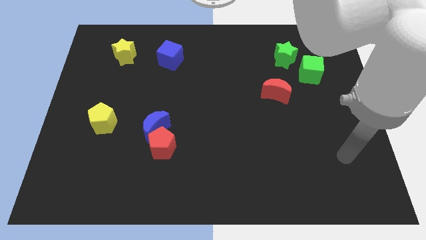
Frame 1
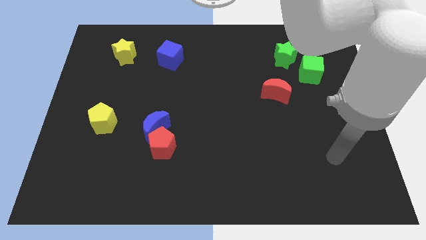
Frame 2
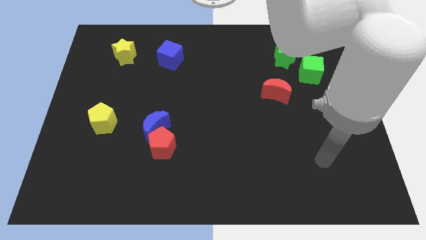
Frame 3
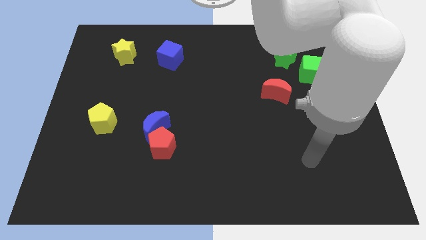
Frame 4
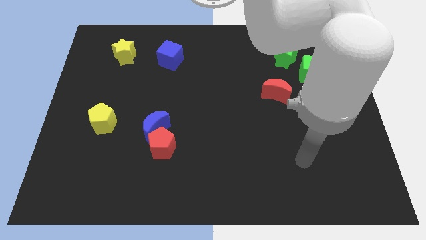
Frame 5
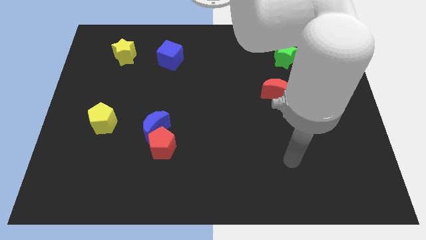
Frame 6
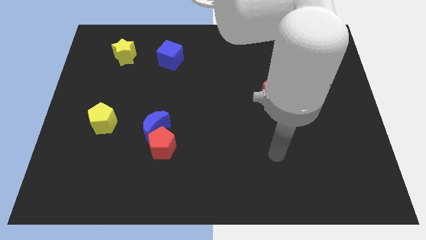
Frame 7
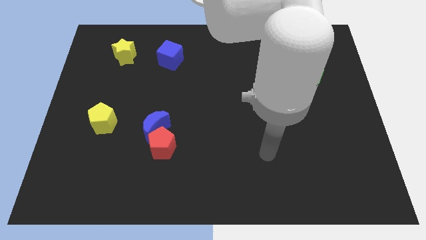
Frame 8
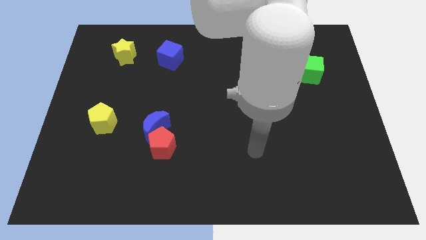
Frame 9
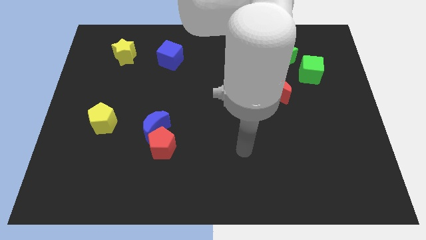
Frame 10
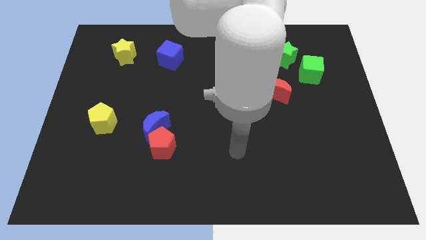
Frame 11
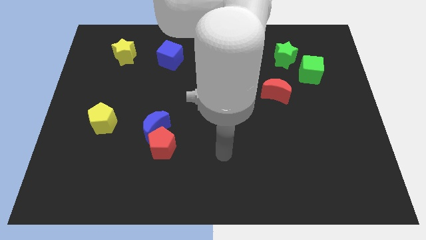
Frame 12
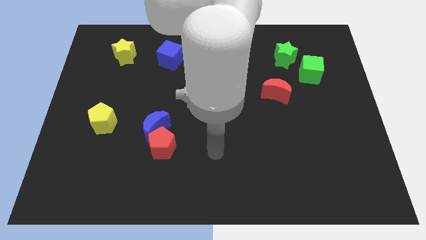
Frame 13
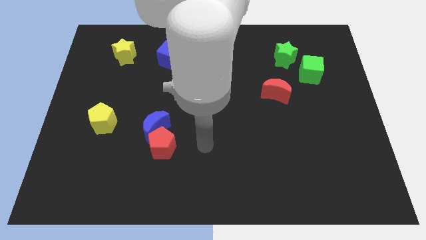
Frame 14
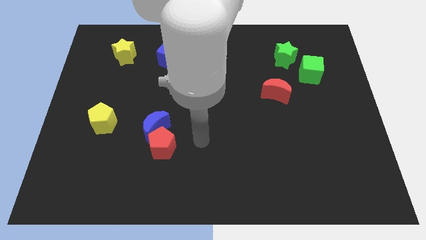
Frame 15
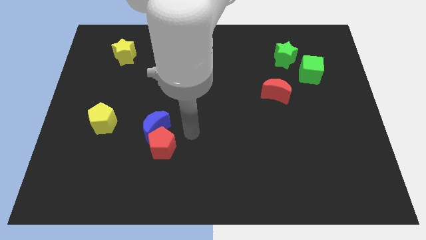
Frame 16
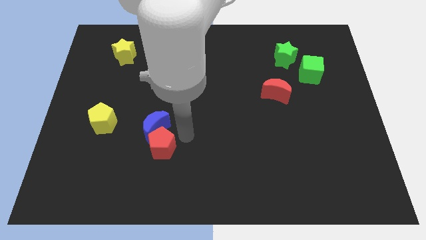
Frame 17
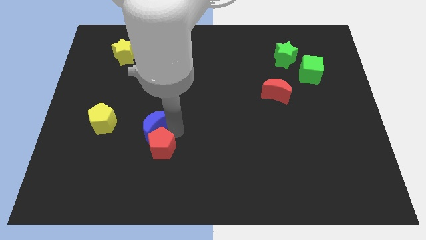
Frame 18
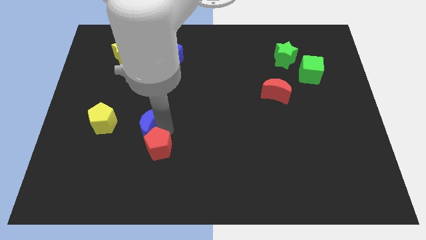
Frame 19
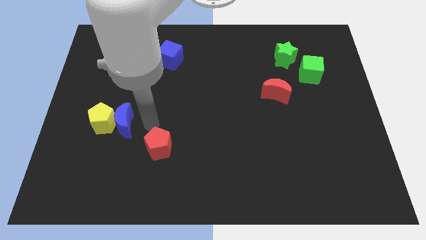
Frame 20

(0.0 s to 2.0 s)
separate the red pentagon from the blue moon

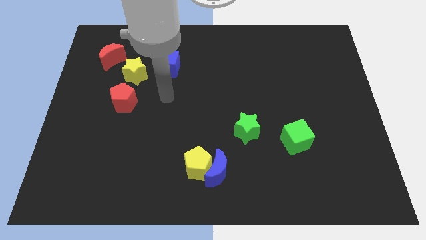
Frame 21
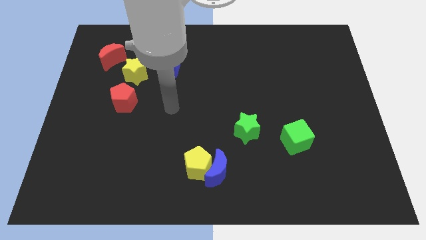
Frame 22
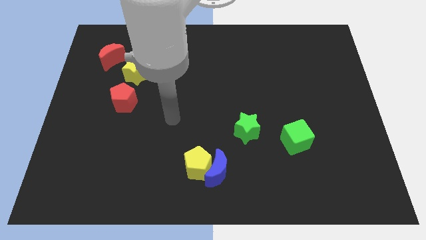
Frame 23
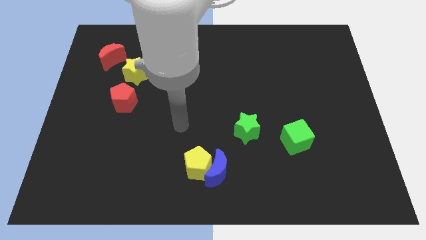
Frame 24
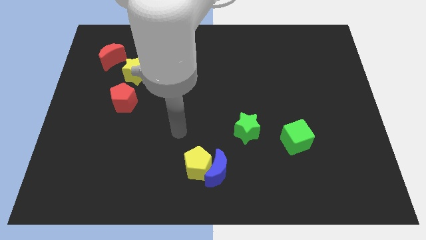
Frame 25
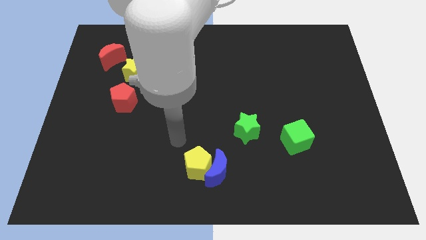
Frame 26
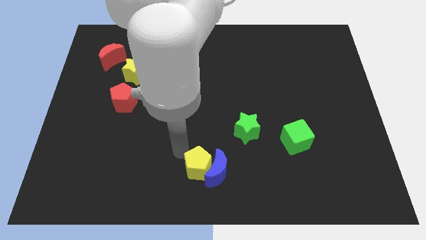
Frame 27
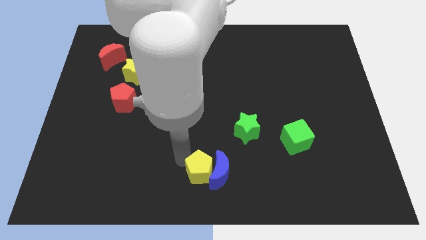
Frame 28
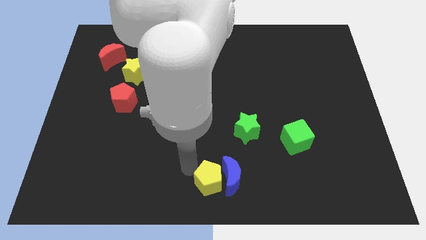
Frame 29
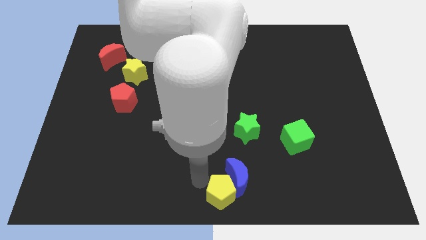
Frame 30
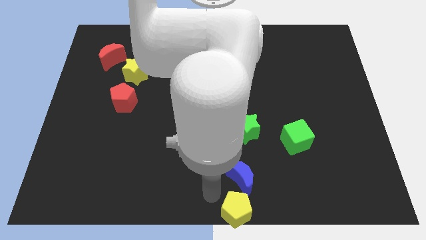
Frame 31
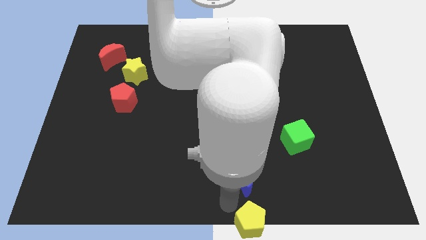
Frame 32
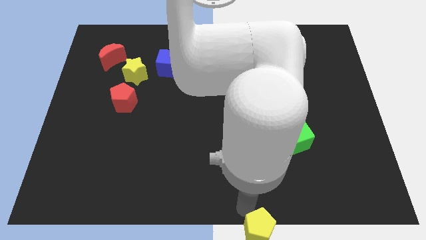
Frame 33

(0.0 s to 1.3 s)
separate the blue moon from the yellow pentagon

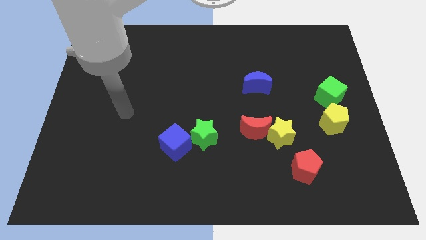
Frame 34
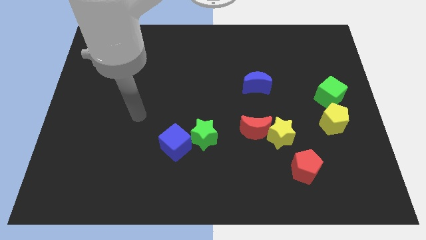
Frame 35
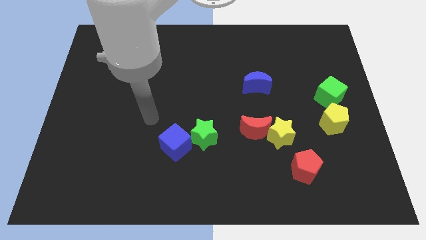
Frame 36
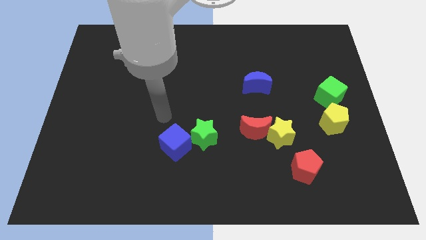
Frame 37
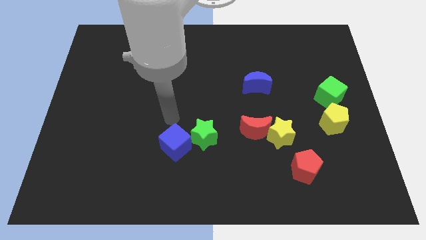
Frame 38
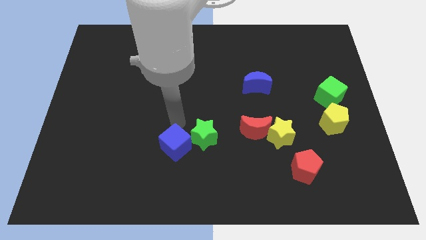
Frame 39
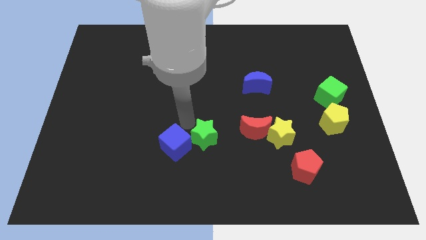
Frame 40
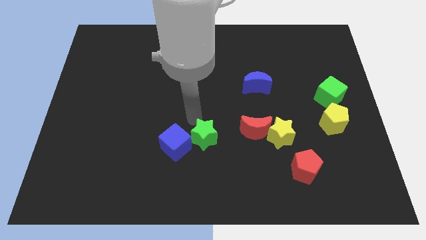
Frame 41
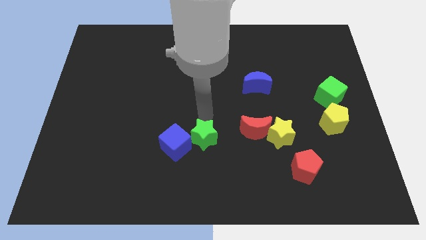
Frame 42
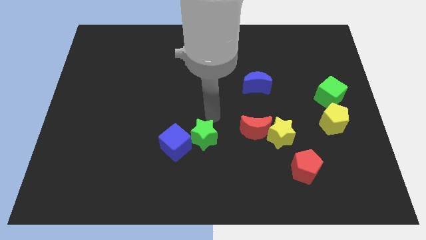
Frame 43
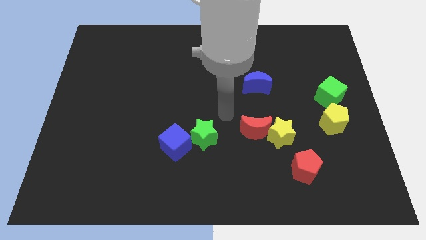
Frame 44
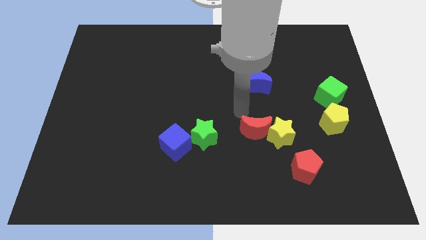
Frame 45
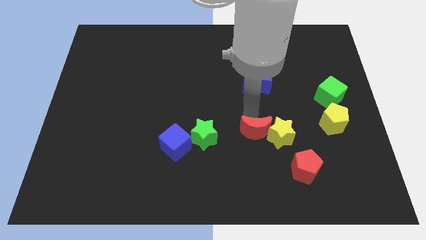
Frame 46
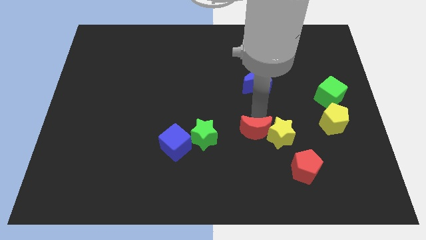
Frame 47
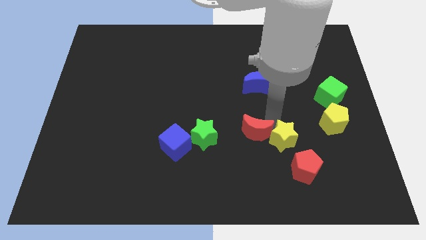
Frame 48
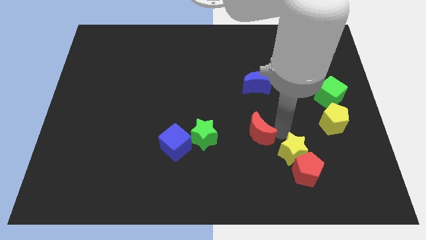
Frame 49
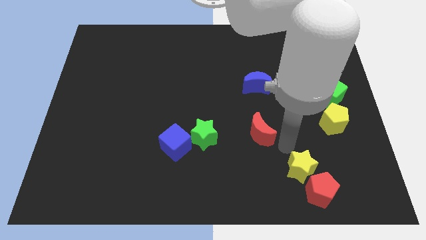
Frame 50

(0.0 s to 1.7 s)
pull the red moon apart from the yellow star

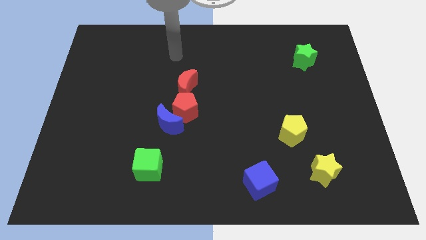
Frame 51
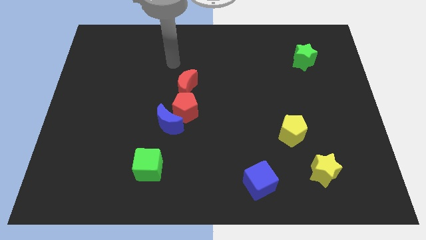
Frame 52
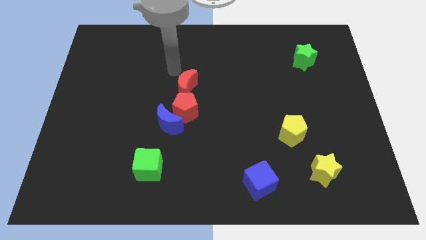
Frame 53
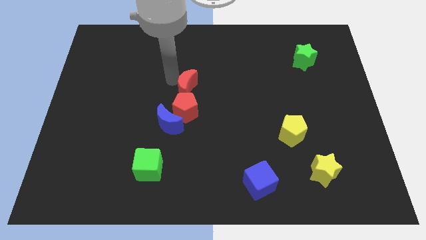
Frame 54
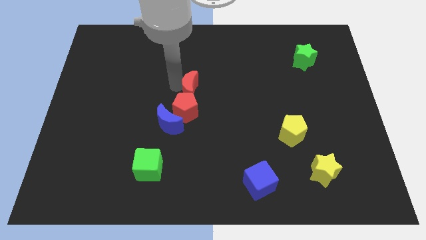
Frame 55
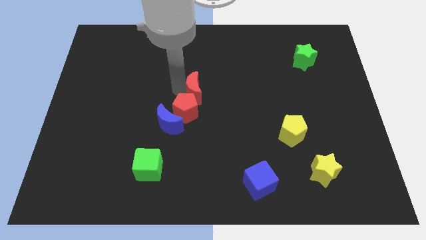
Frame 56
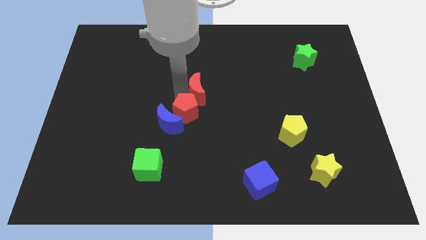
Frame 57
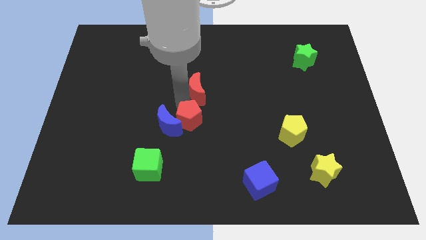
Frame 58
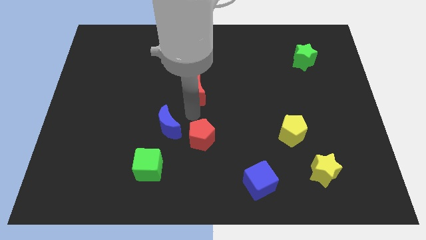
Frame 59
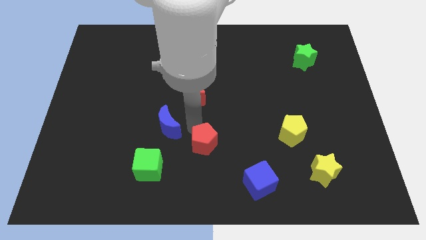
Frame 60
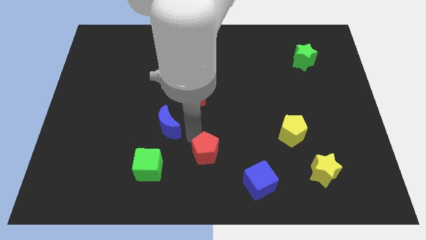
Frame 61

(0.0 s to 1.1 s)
pull the blue moon apart from the red pentagon

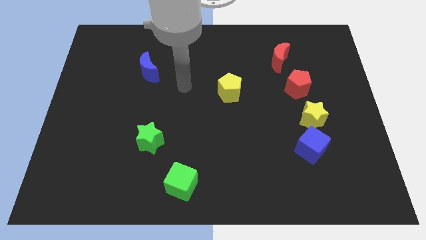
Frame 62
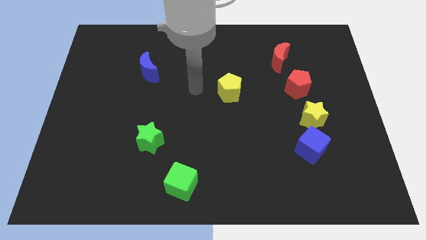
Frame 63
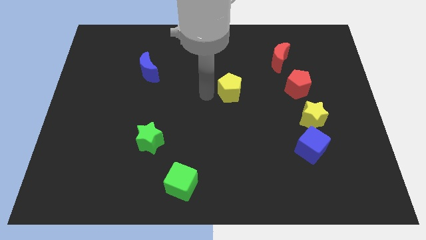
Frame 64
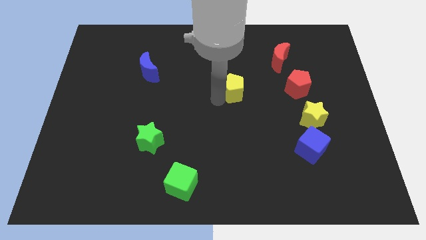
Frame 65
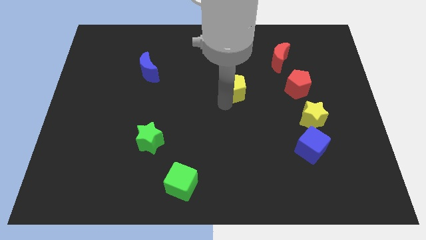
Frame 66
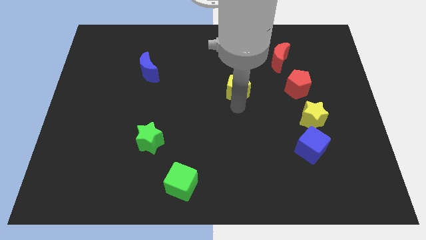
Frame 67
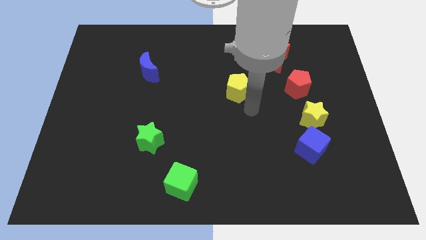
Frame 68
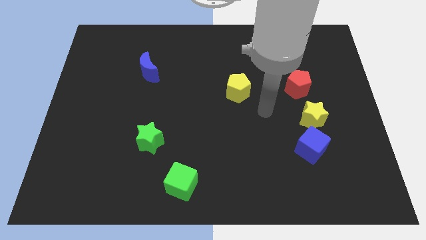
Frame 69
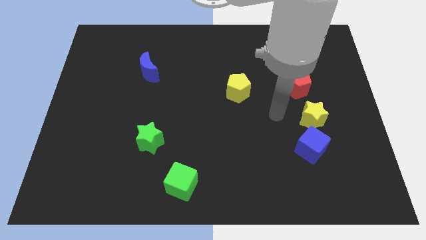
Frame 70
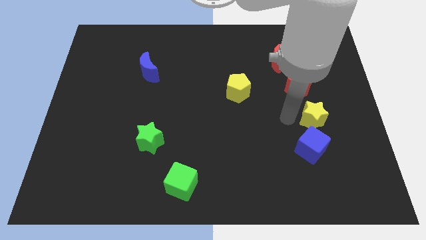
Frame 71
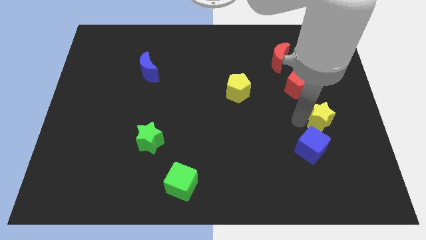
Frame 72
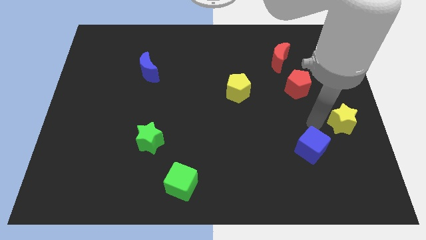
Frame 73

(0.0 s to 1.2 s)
move the blue cube away from the yellow star

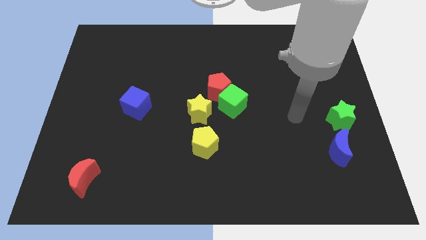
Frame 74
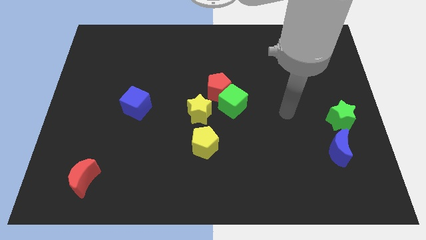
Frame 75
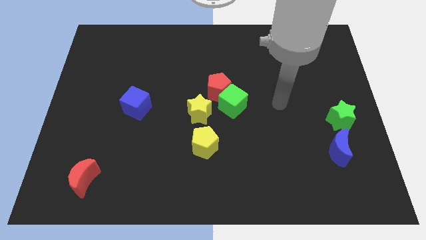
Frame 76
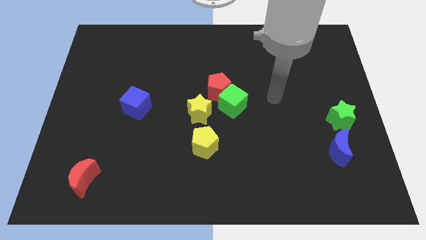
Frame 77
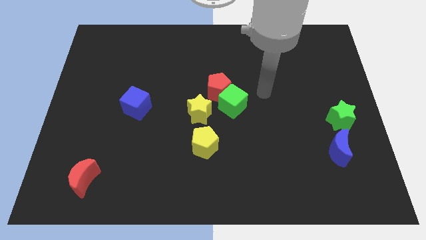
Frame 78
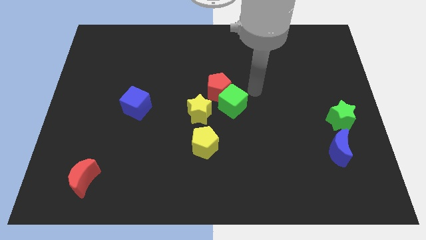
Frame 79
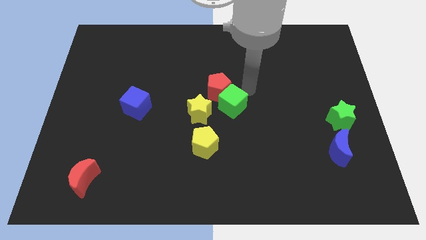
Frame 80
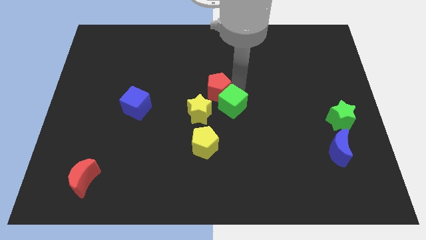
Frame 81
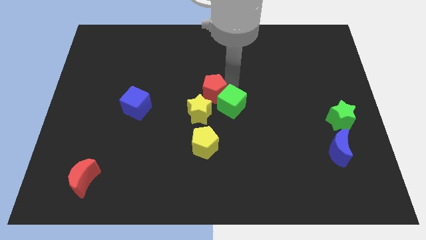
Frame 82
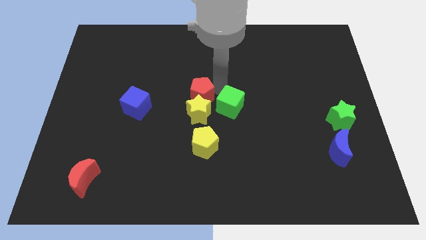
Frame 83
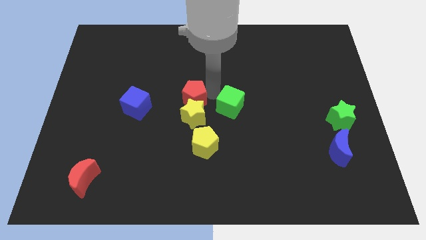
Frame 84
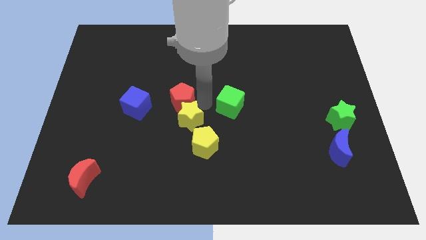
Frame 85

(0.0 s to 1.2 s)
pull the green cube apart from the red pentagon and yellow star

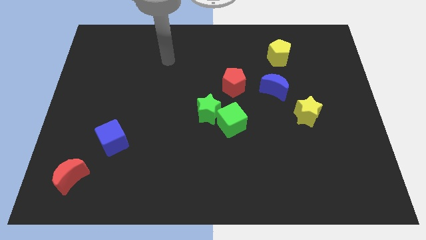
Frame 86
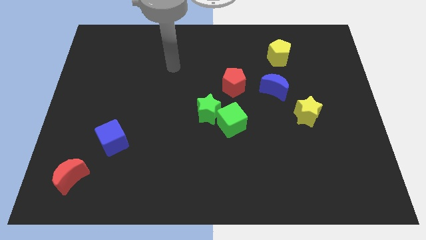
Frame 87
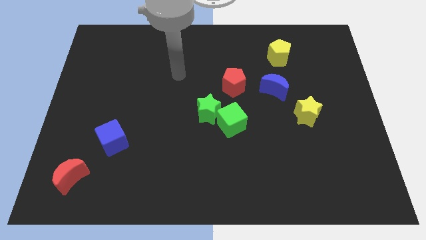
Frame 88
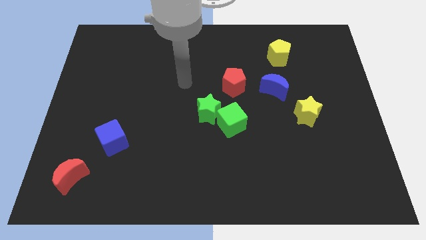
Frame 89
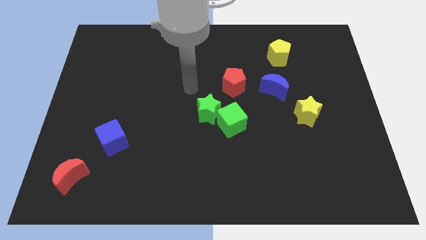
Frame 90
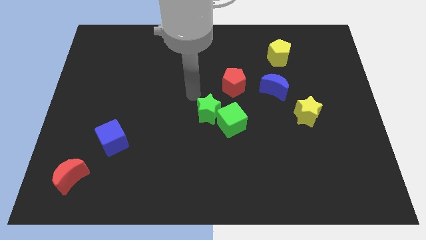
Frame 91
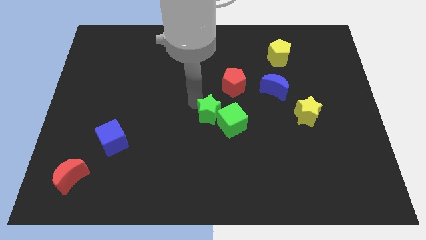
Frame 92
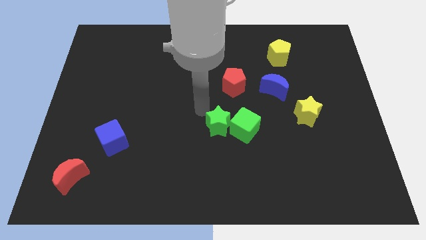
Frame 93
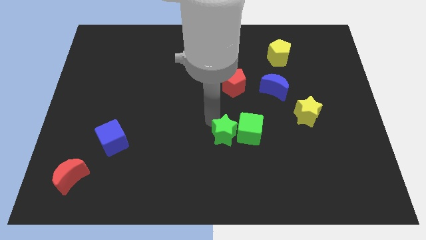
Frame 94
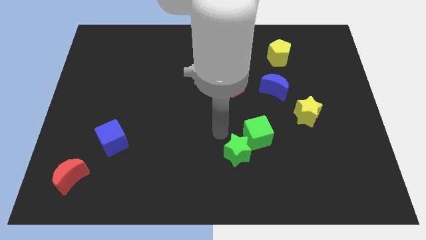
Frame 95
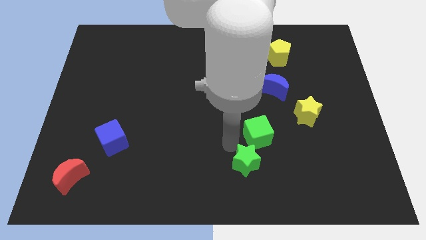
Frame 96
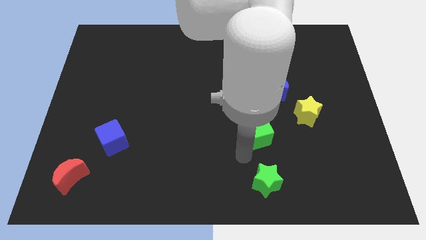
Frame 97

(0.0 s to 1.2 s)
pull the green cube apart from the green star
